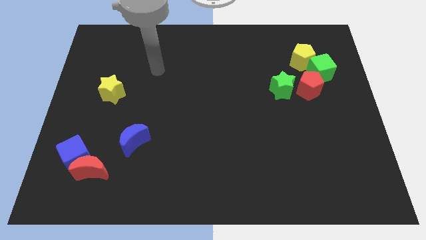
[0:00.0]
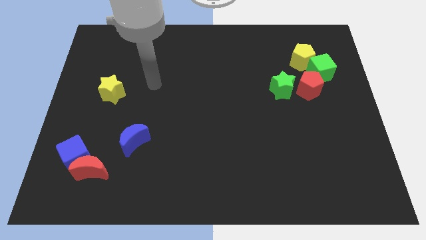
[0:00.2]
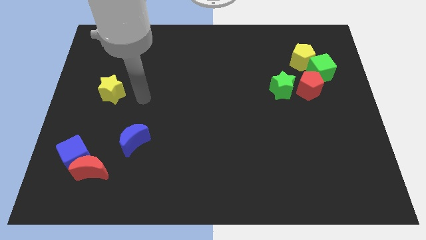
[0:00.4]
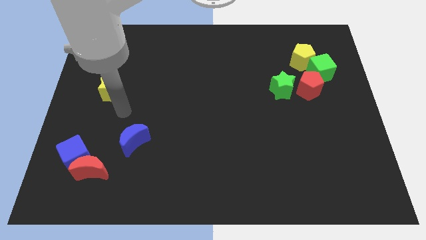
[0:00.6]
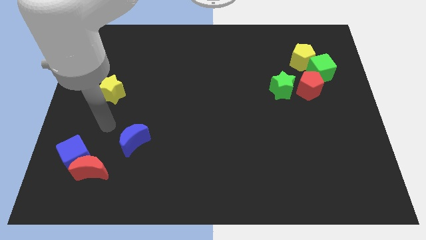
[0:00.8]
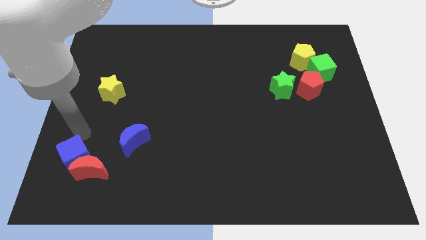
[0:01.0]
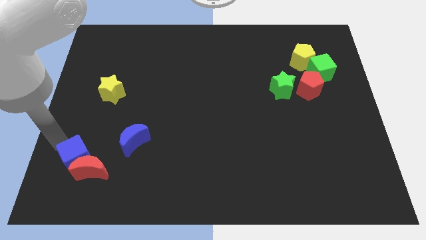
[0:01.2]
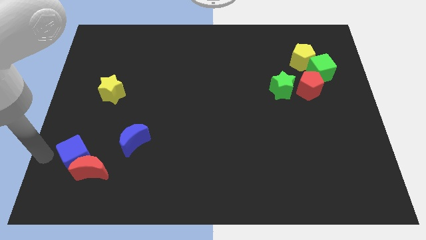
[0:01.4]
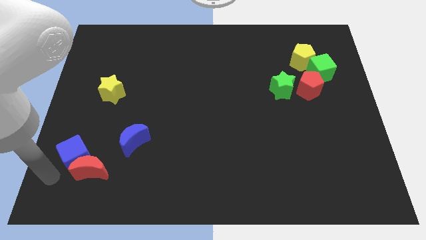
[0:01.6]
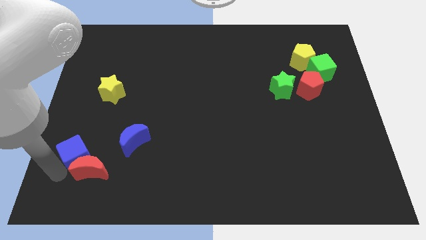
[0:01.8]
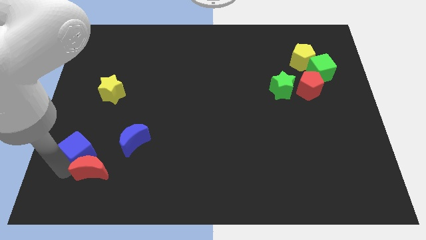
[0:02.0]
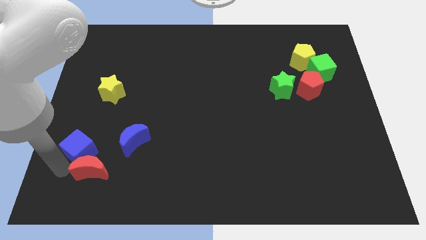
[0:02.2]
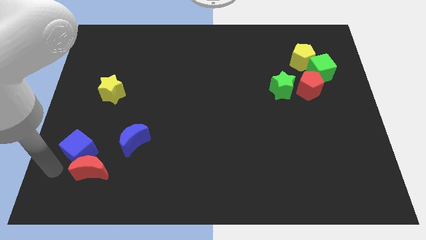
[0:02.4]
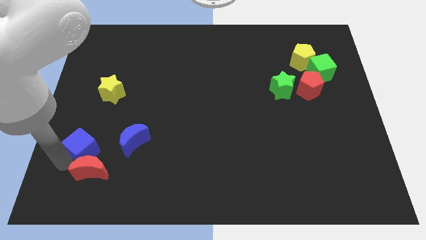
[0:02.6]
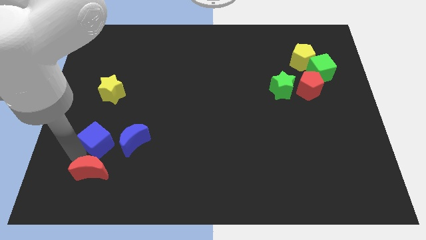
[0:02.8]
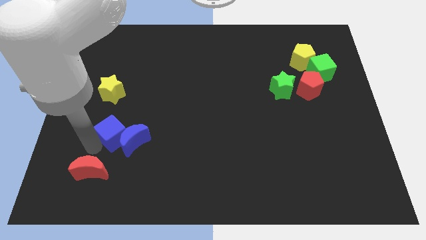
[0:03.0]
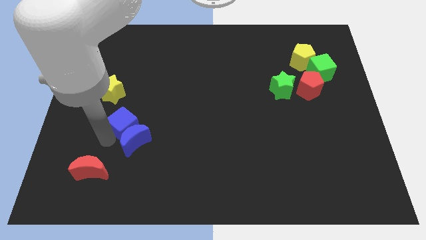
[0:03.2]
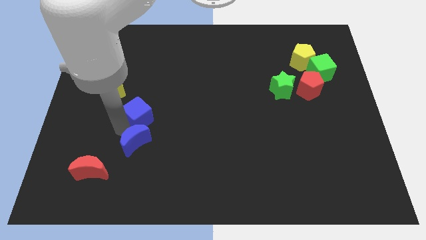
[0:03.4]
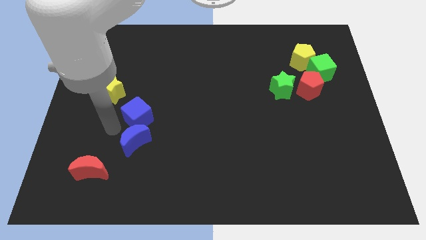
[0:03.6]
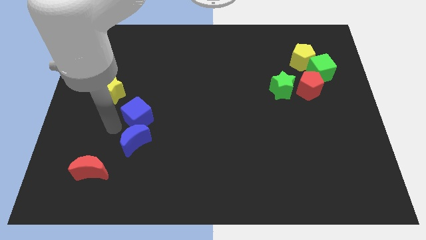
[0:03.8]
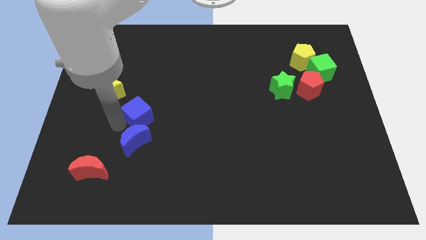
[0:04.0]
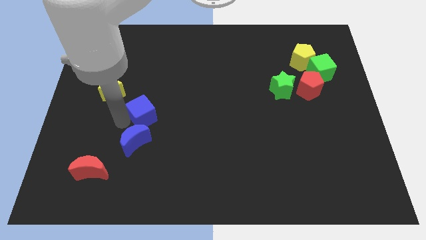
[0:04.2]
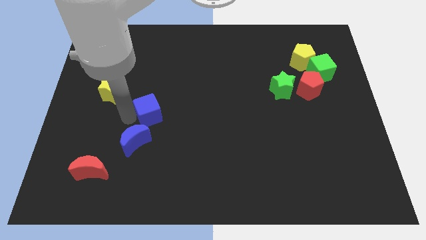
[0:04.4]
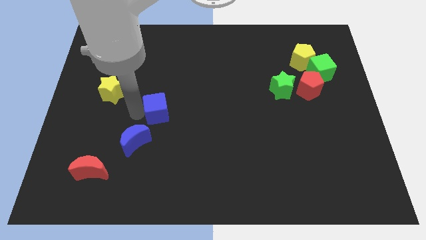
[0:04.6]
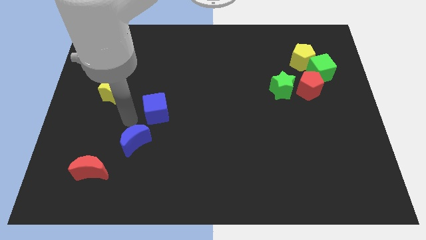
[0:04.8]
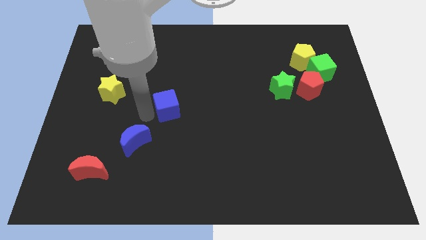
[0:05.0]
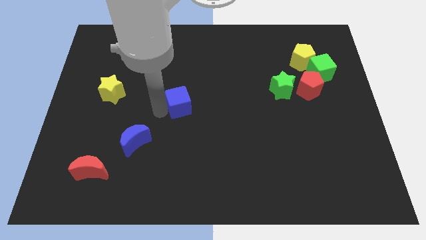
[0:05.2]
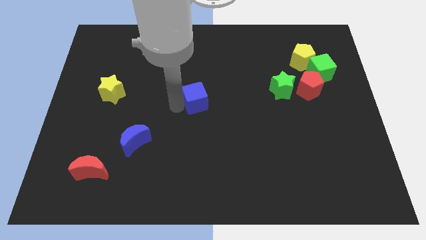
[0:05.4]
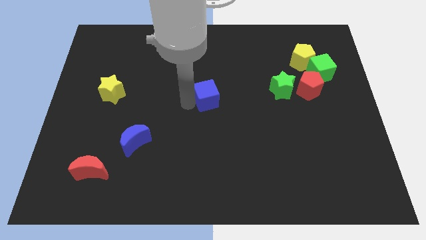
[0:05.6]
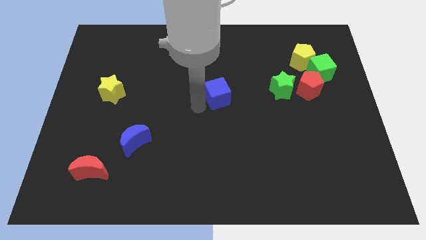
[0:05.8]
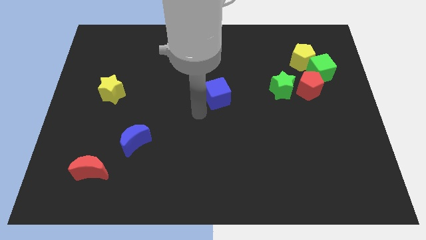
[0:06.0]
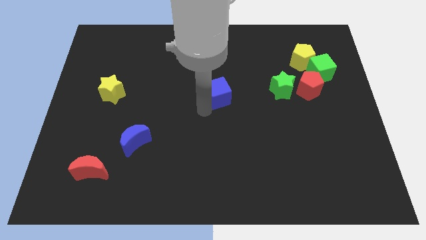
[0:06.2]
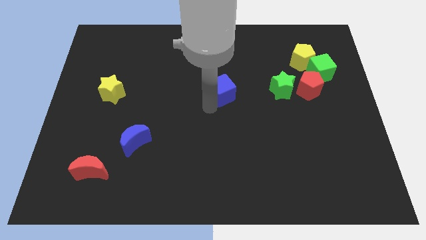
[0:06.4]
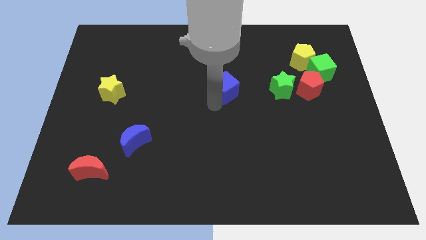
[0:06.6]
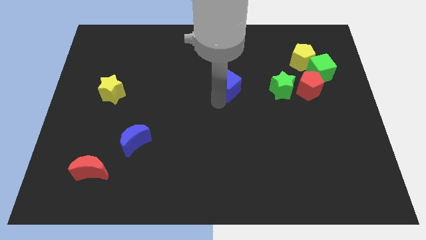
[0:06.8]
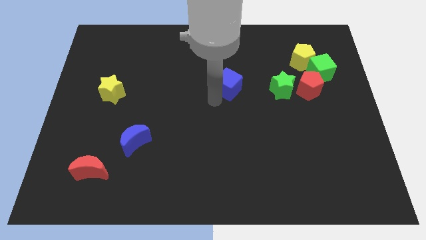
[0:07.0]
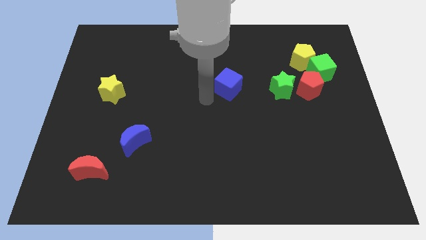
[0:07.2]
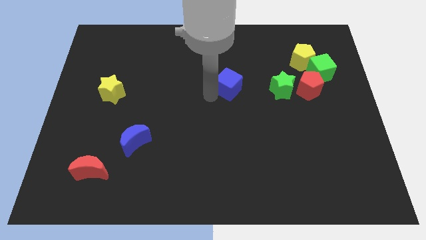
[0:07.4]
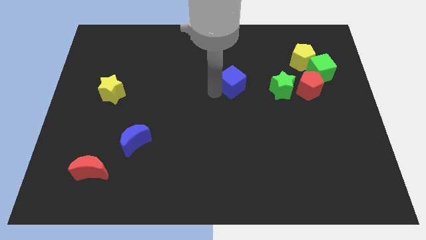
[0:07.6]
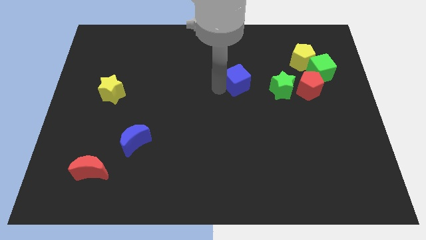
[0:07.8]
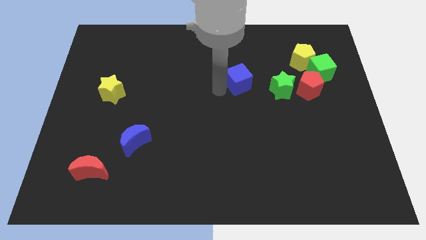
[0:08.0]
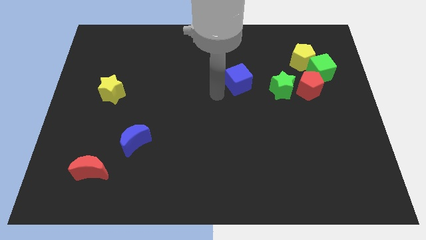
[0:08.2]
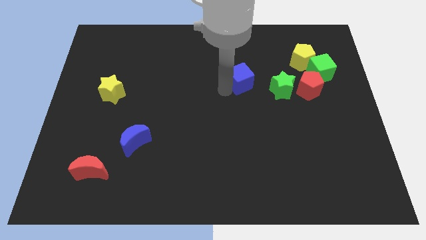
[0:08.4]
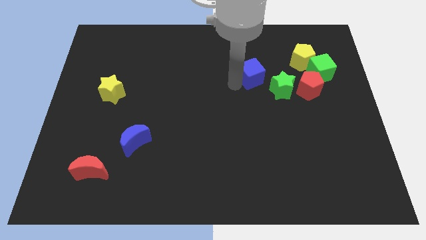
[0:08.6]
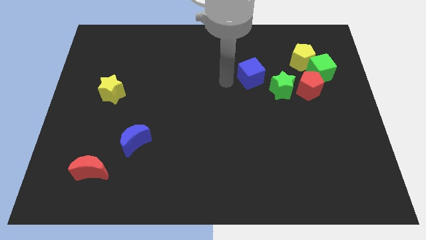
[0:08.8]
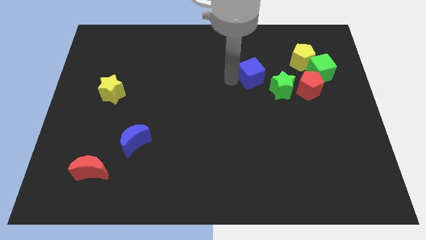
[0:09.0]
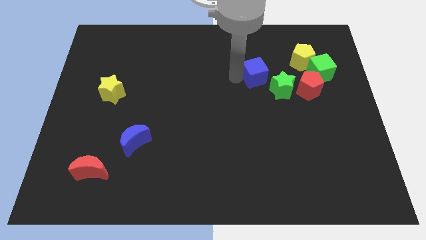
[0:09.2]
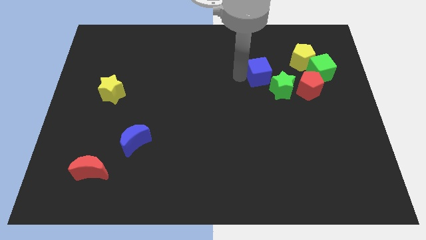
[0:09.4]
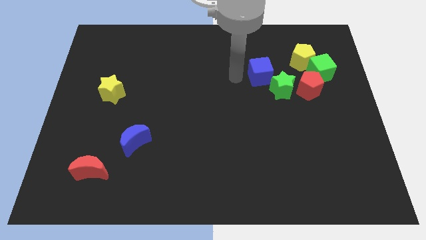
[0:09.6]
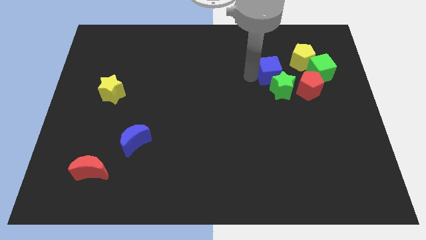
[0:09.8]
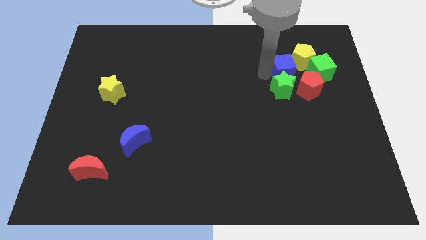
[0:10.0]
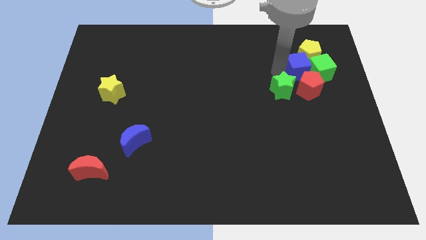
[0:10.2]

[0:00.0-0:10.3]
move the blue cube to the green cube

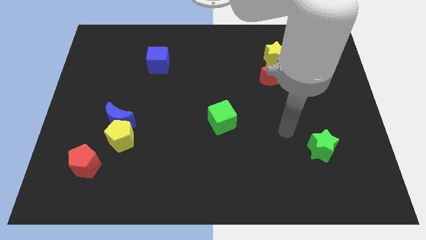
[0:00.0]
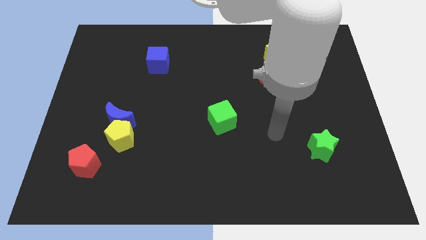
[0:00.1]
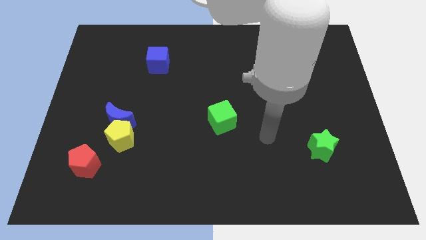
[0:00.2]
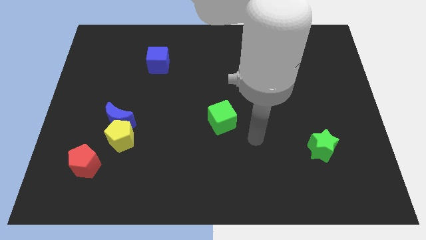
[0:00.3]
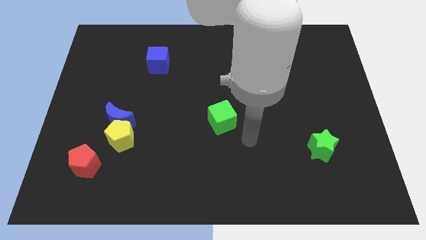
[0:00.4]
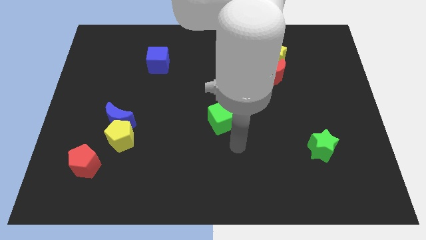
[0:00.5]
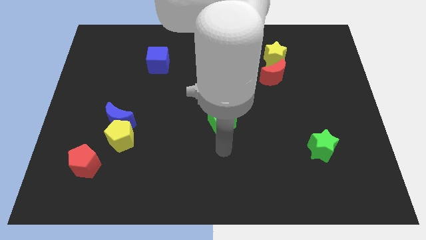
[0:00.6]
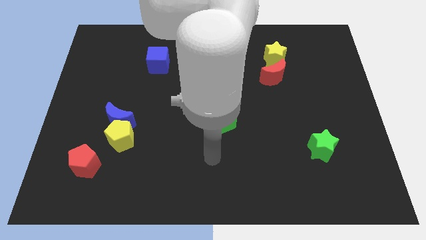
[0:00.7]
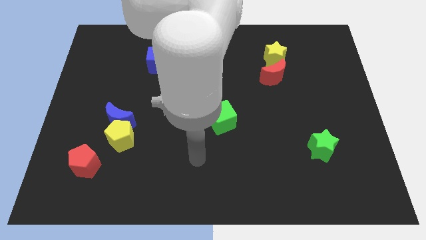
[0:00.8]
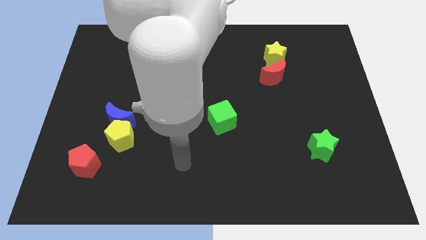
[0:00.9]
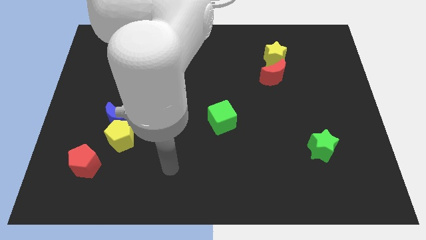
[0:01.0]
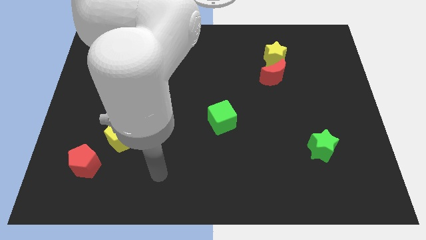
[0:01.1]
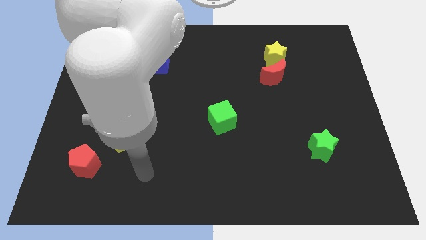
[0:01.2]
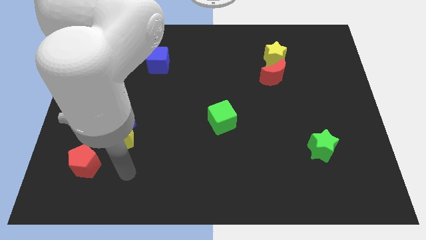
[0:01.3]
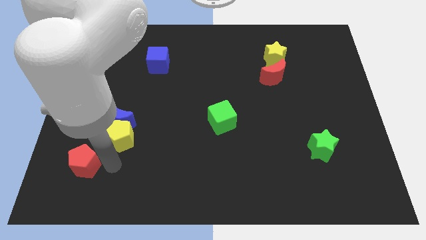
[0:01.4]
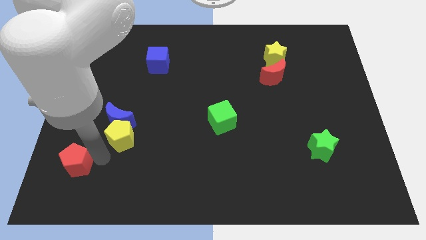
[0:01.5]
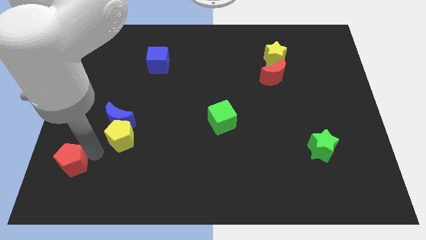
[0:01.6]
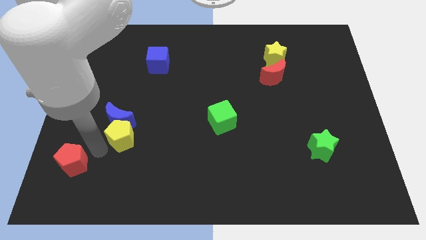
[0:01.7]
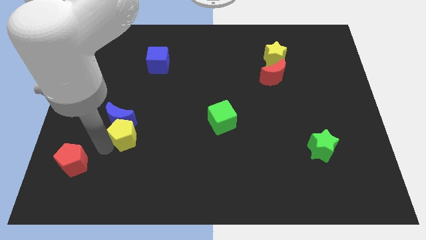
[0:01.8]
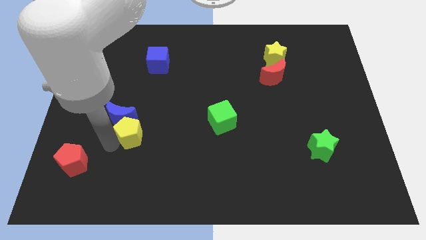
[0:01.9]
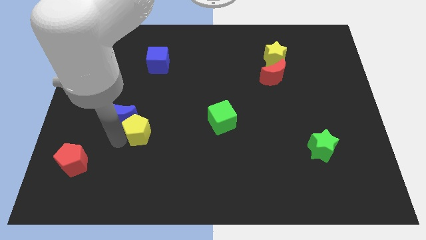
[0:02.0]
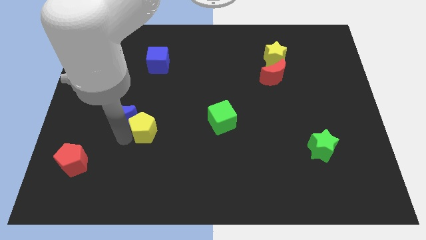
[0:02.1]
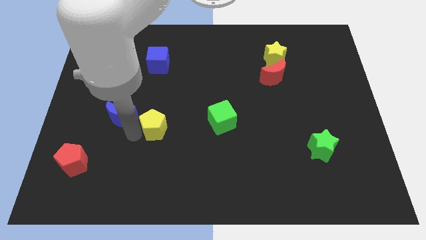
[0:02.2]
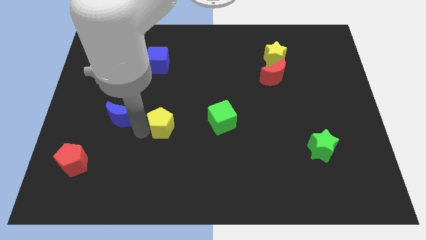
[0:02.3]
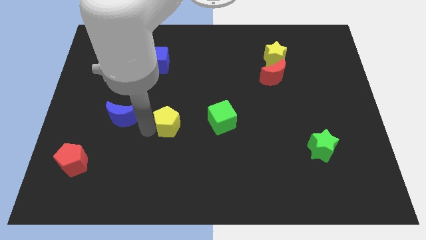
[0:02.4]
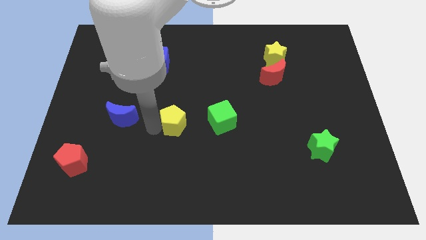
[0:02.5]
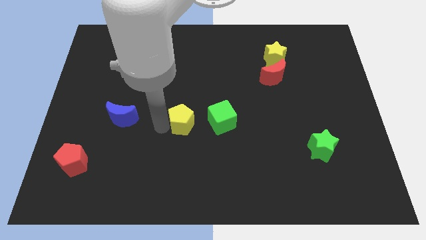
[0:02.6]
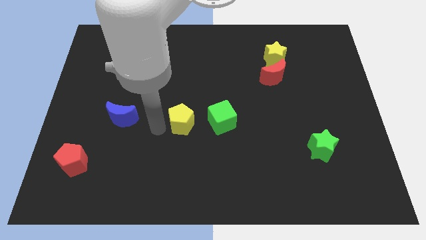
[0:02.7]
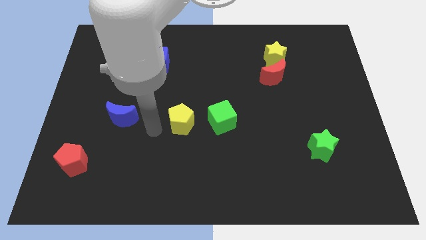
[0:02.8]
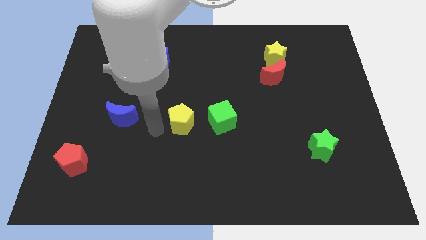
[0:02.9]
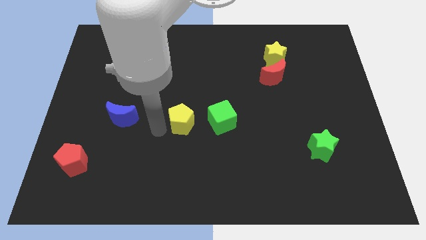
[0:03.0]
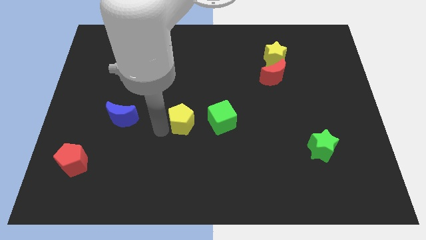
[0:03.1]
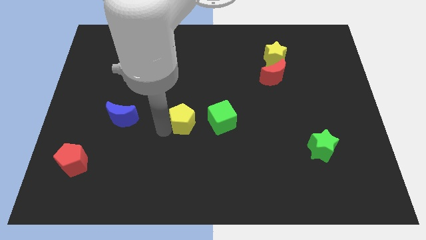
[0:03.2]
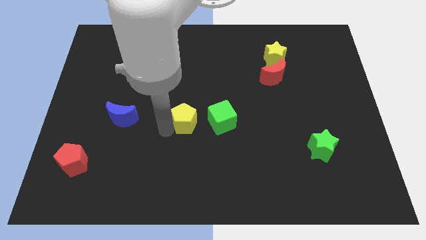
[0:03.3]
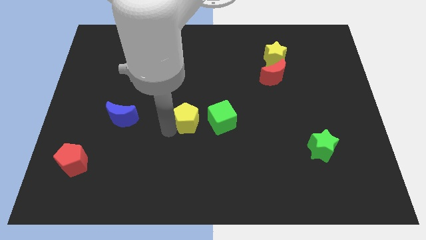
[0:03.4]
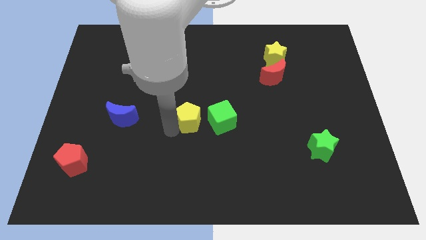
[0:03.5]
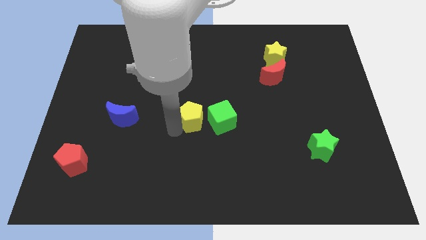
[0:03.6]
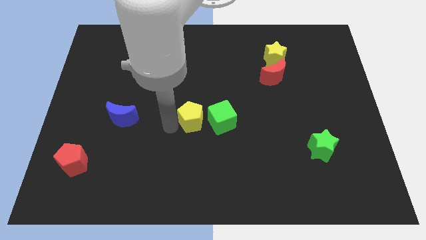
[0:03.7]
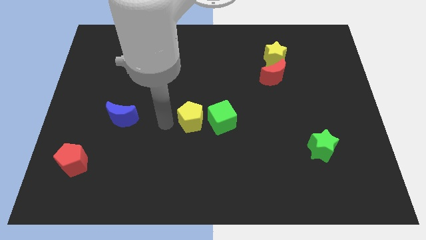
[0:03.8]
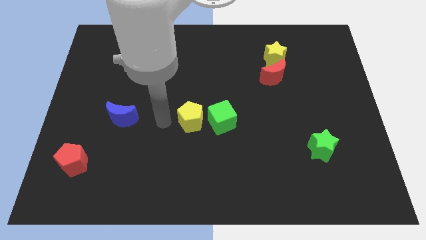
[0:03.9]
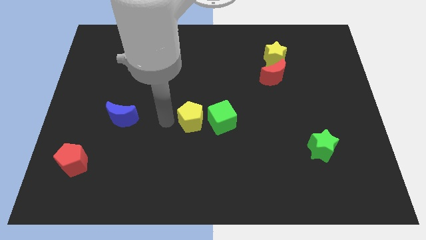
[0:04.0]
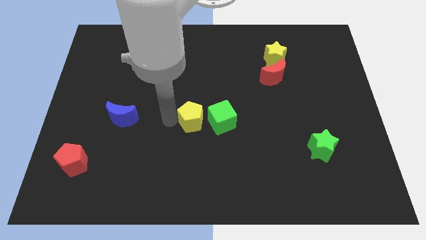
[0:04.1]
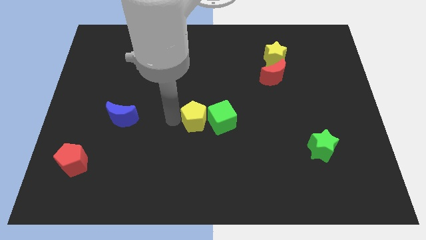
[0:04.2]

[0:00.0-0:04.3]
push the yellow pentagon to the green cube
